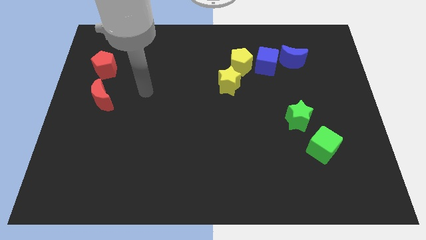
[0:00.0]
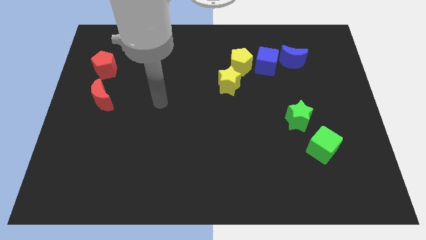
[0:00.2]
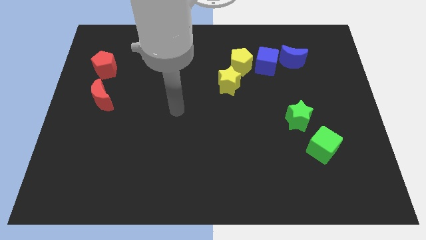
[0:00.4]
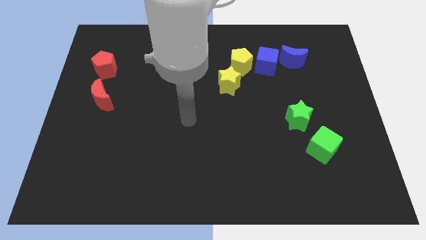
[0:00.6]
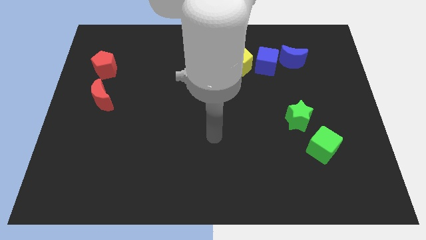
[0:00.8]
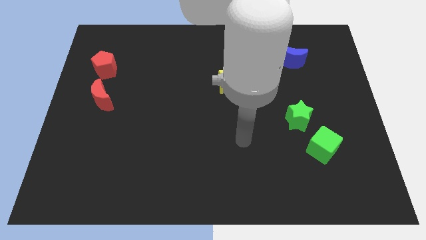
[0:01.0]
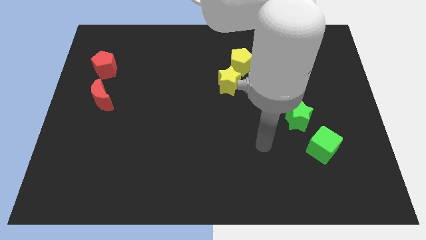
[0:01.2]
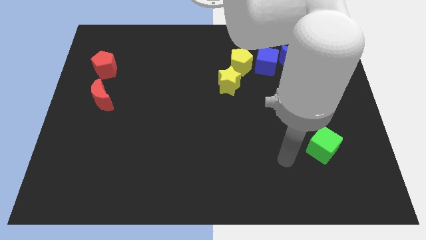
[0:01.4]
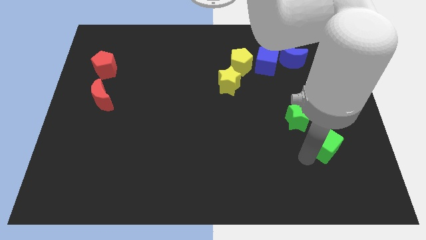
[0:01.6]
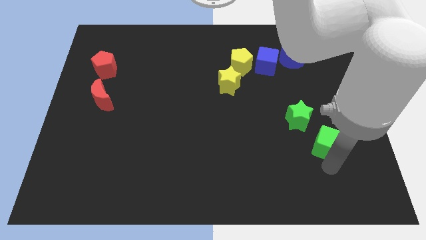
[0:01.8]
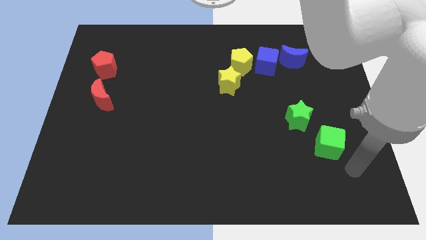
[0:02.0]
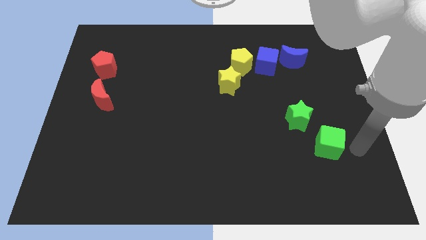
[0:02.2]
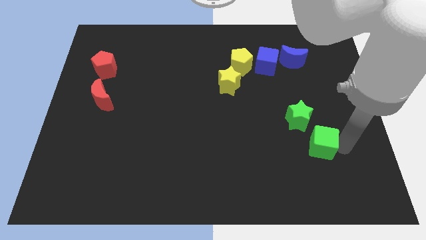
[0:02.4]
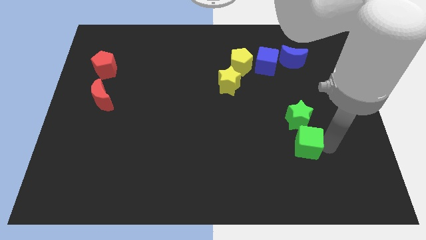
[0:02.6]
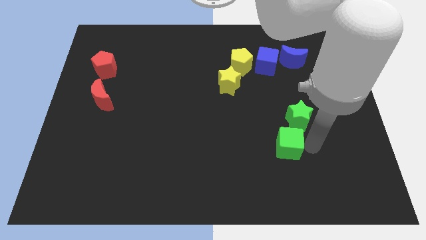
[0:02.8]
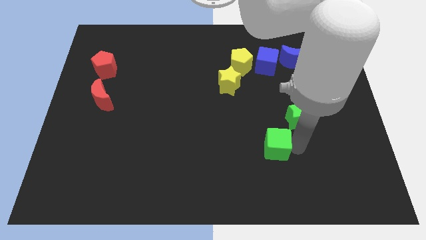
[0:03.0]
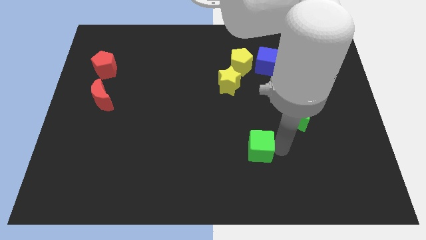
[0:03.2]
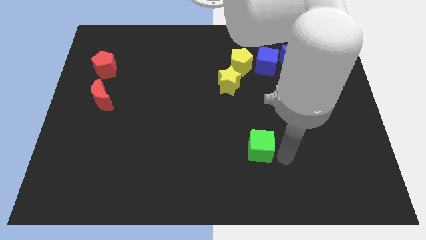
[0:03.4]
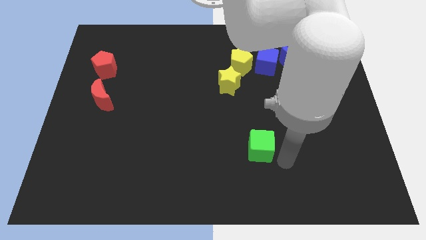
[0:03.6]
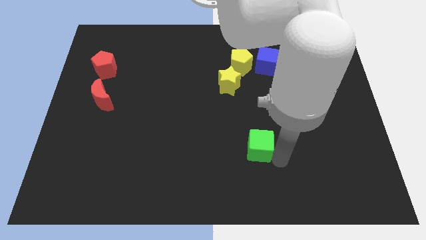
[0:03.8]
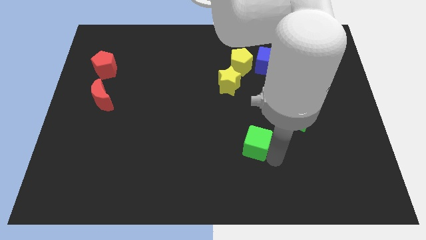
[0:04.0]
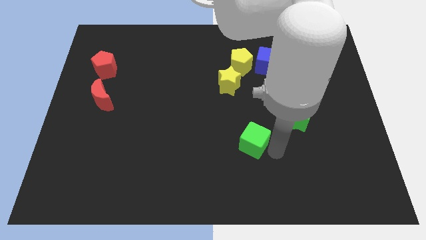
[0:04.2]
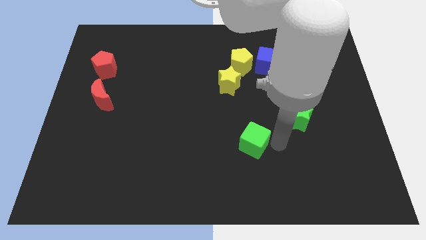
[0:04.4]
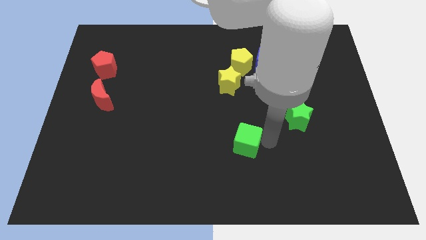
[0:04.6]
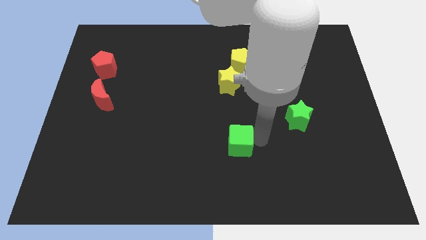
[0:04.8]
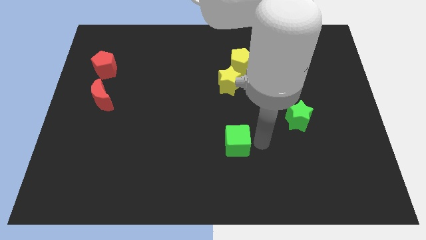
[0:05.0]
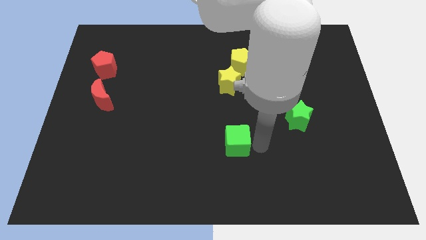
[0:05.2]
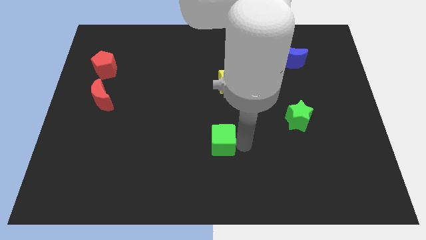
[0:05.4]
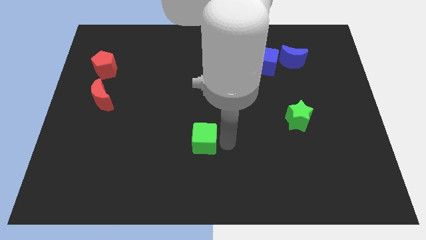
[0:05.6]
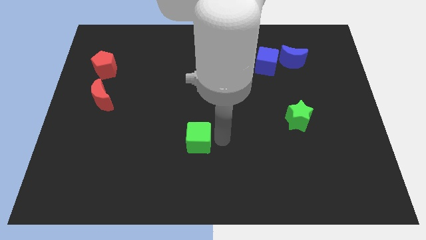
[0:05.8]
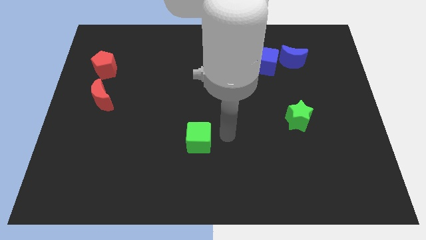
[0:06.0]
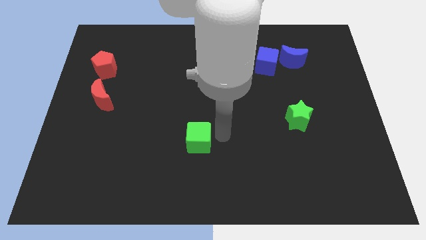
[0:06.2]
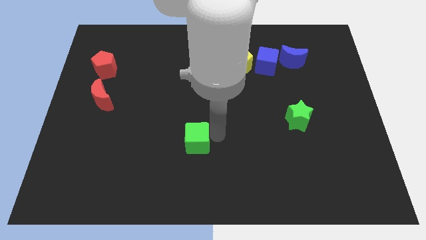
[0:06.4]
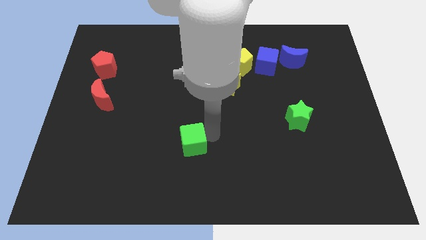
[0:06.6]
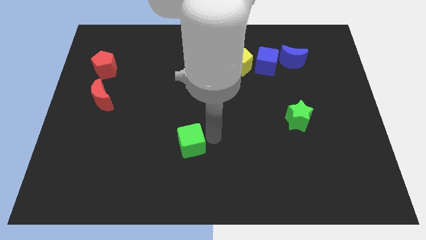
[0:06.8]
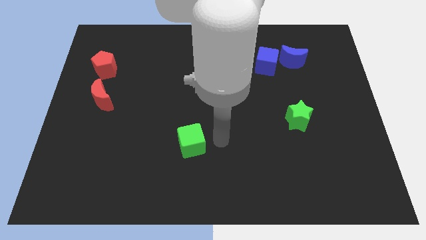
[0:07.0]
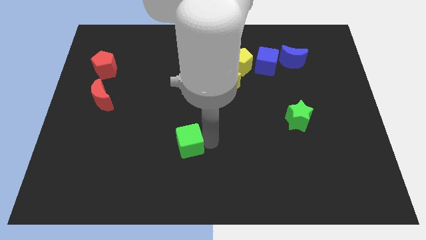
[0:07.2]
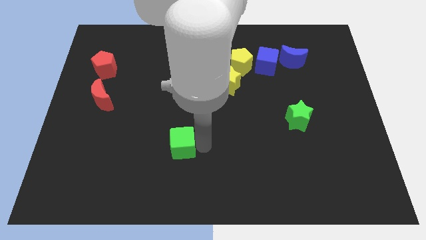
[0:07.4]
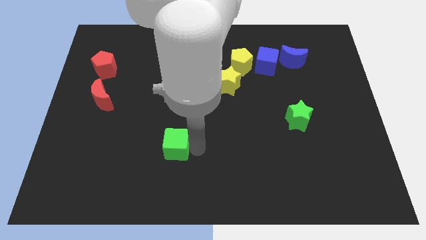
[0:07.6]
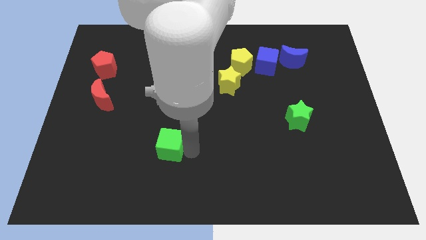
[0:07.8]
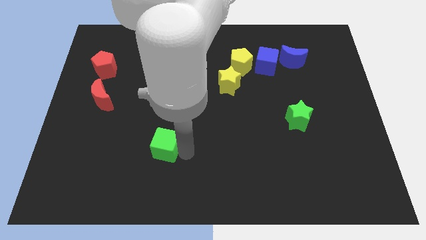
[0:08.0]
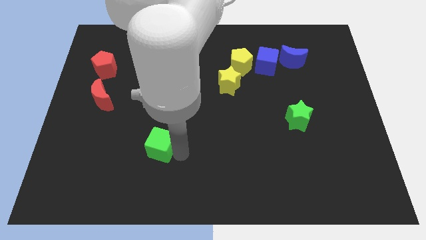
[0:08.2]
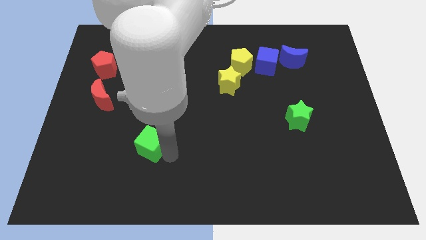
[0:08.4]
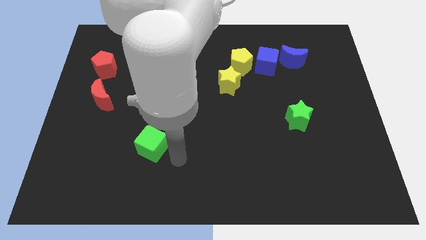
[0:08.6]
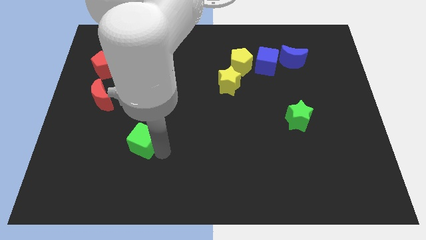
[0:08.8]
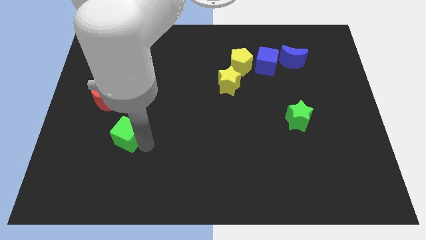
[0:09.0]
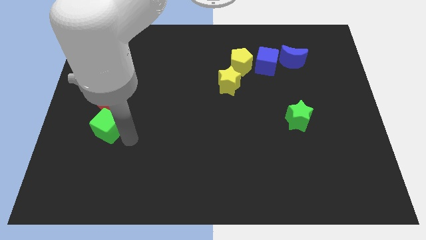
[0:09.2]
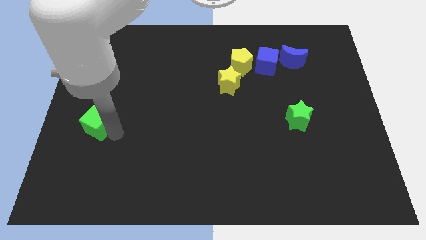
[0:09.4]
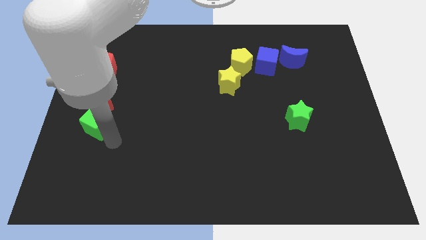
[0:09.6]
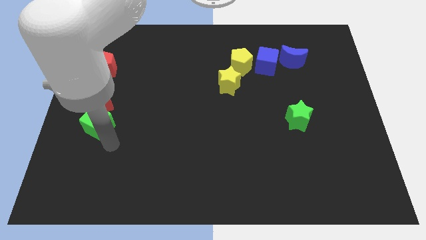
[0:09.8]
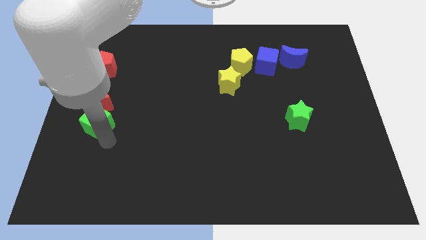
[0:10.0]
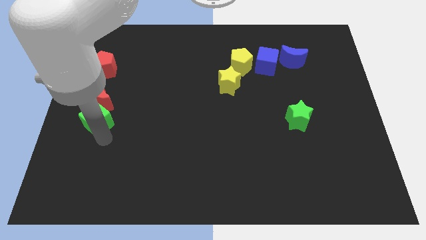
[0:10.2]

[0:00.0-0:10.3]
push the green cube to the center left

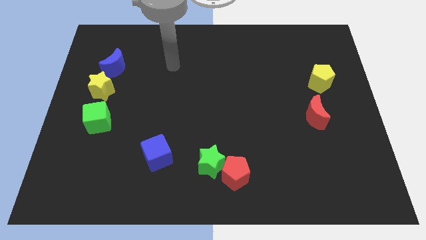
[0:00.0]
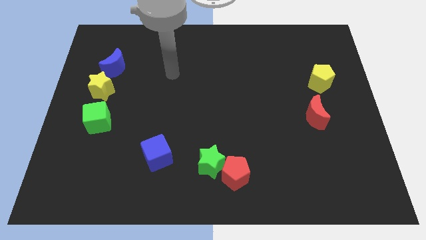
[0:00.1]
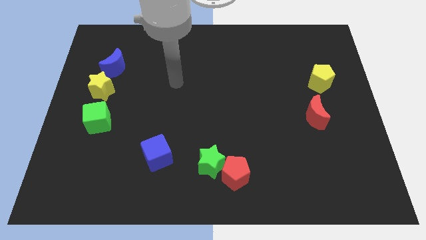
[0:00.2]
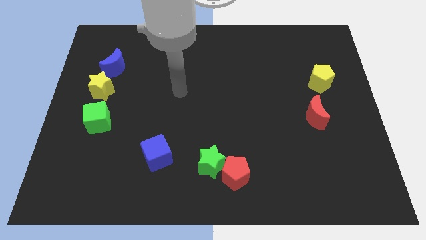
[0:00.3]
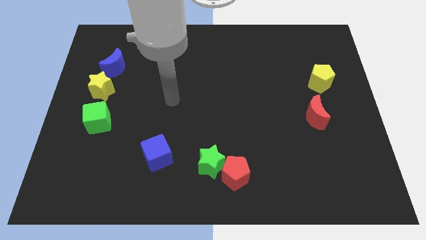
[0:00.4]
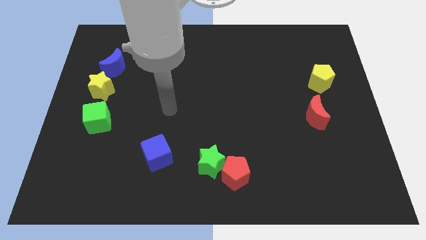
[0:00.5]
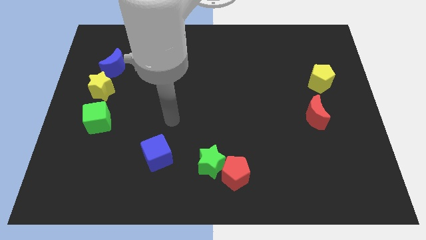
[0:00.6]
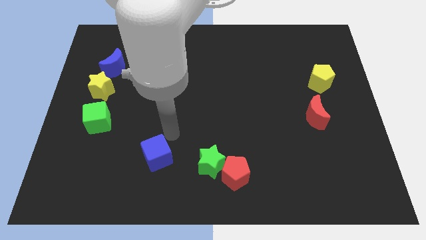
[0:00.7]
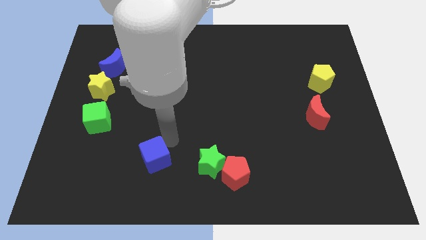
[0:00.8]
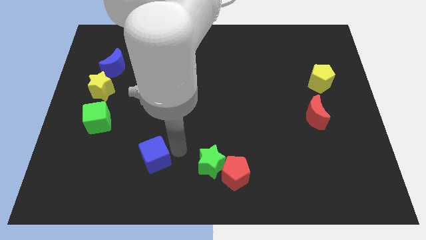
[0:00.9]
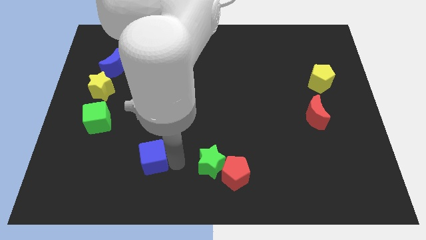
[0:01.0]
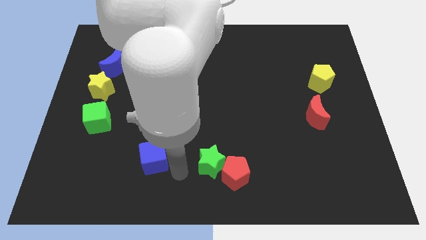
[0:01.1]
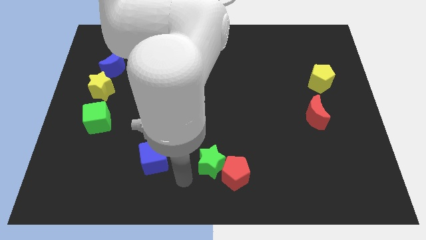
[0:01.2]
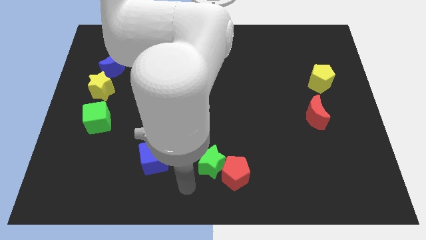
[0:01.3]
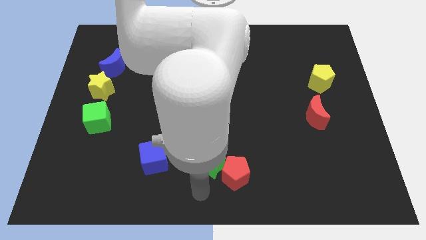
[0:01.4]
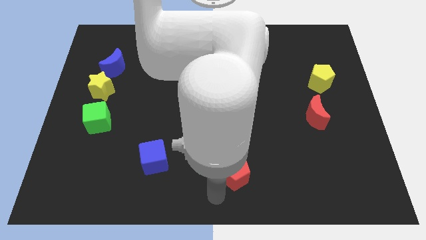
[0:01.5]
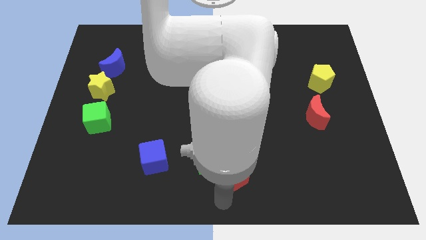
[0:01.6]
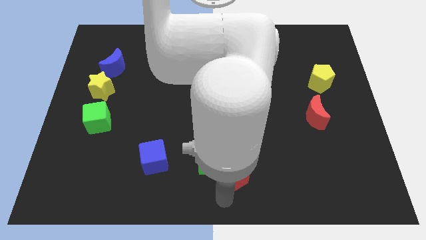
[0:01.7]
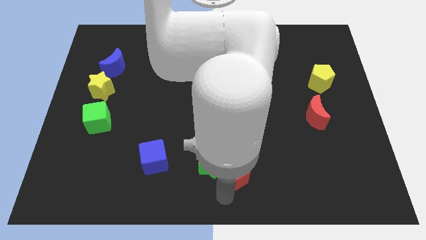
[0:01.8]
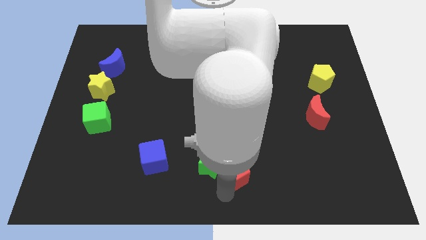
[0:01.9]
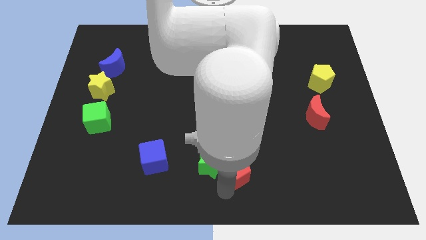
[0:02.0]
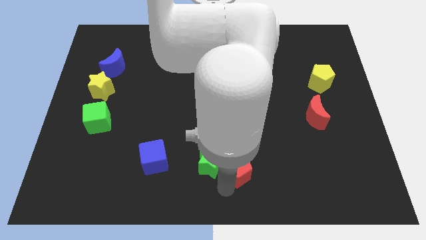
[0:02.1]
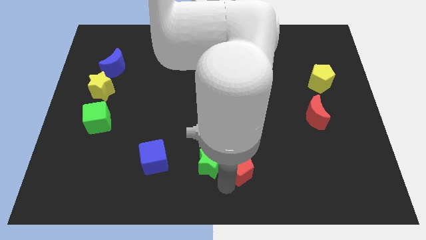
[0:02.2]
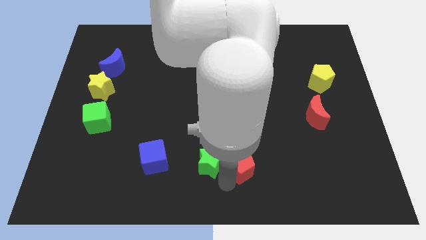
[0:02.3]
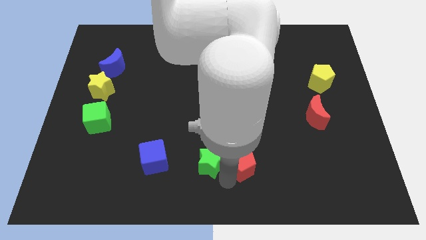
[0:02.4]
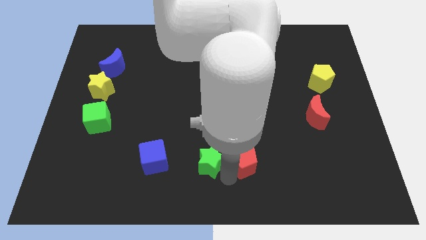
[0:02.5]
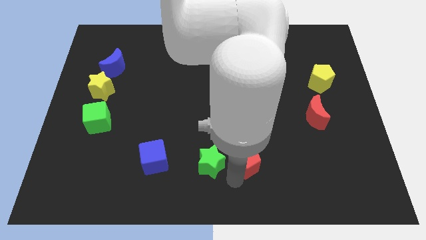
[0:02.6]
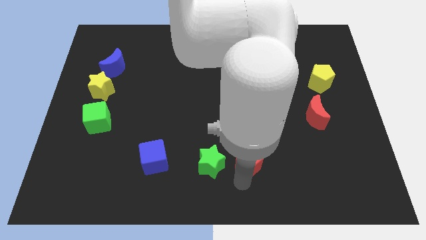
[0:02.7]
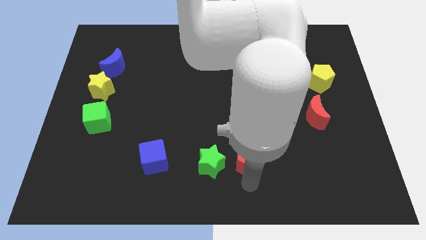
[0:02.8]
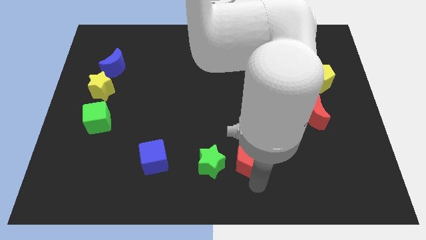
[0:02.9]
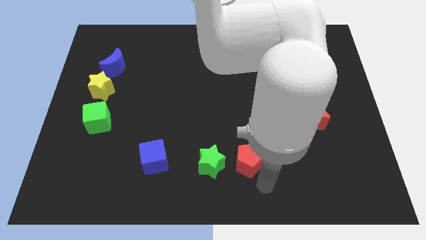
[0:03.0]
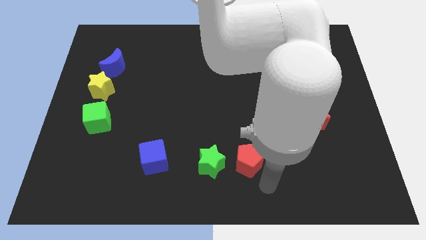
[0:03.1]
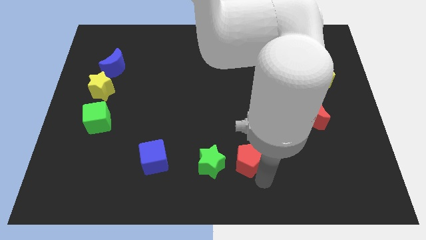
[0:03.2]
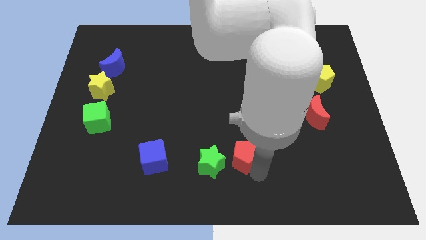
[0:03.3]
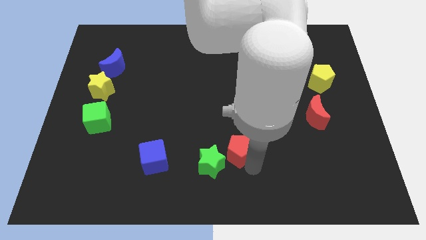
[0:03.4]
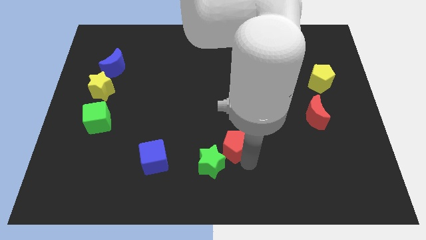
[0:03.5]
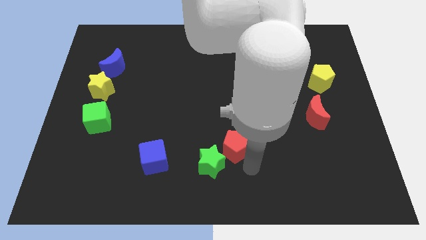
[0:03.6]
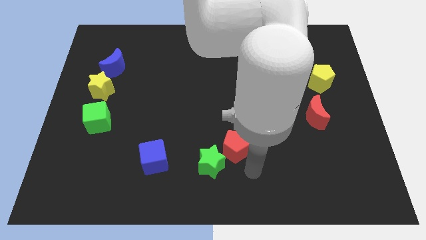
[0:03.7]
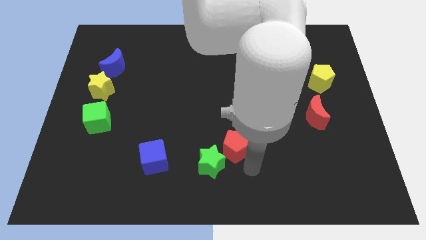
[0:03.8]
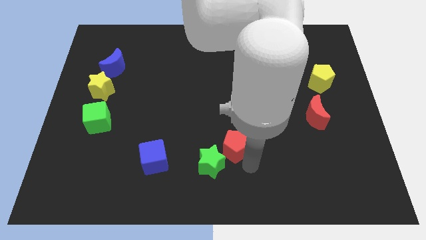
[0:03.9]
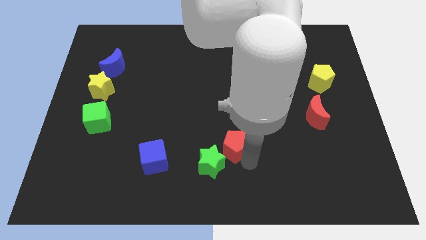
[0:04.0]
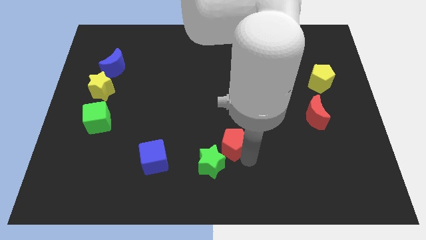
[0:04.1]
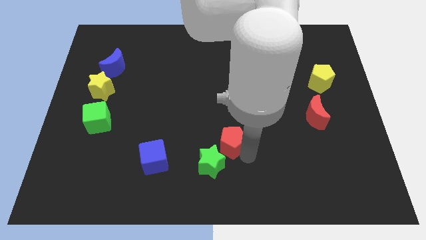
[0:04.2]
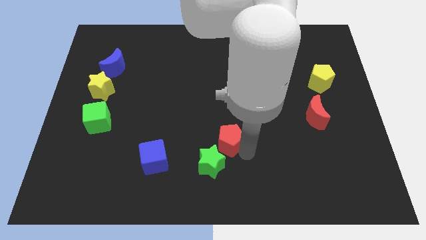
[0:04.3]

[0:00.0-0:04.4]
slide the red pentagon to the center of the board
